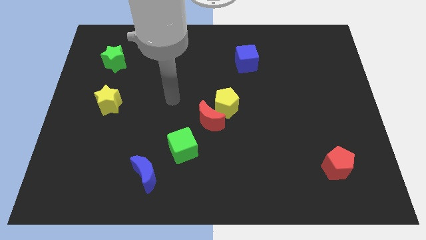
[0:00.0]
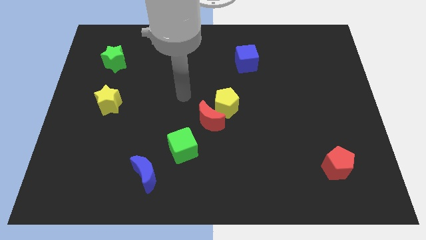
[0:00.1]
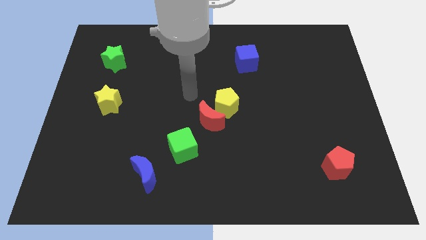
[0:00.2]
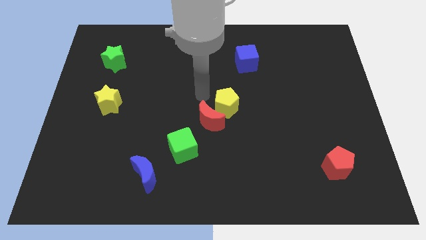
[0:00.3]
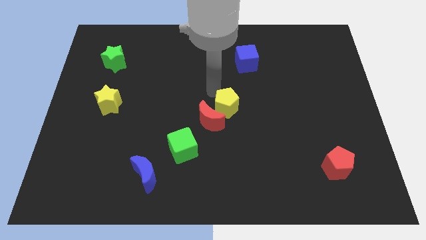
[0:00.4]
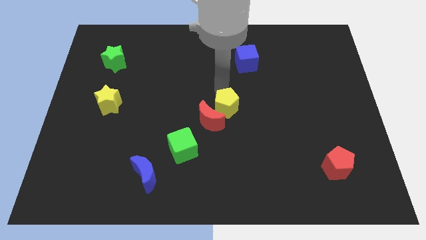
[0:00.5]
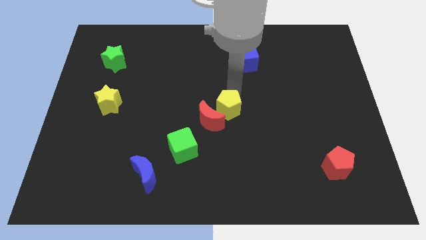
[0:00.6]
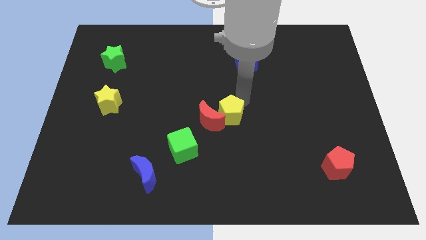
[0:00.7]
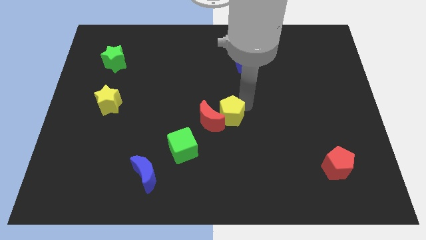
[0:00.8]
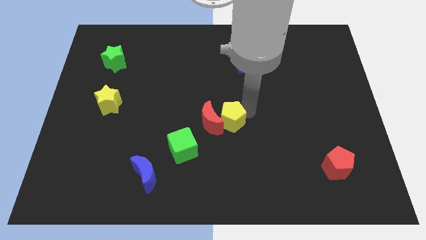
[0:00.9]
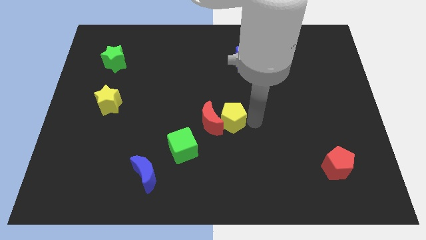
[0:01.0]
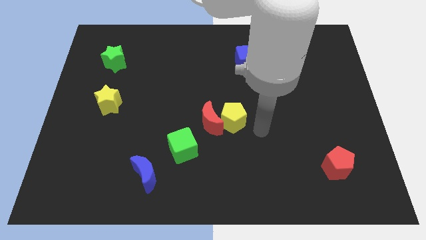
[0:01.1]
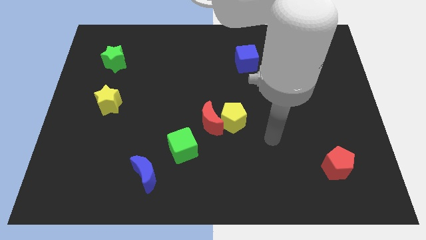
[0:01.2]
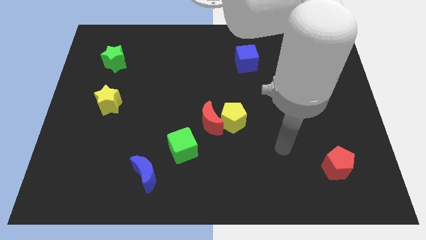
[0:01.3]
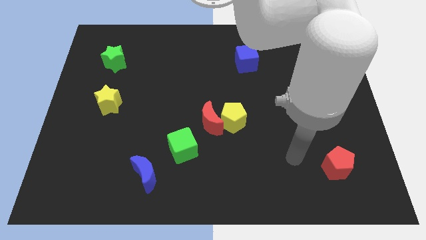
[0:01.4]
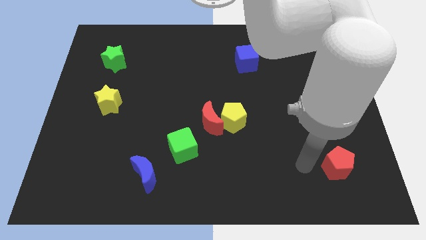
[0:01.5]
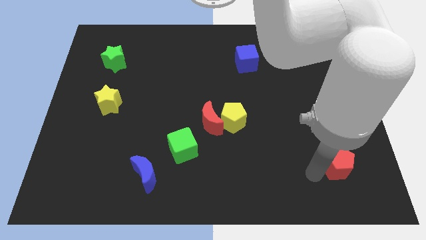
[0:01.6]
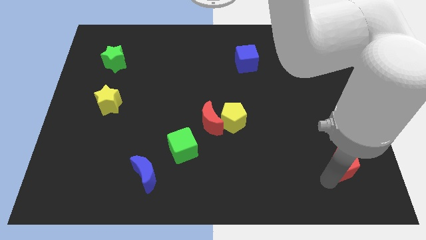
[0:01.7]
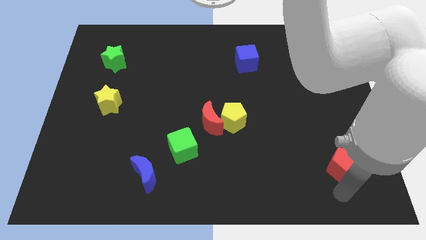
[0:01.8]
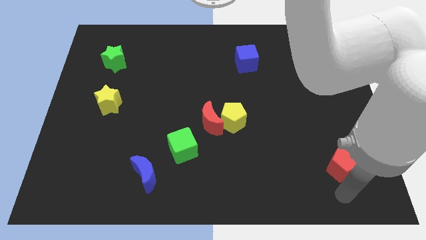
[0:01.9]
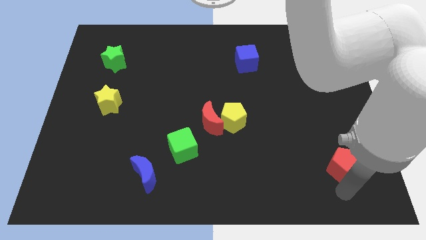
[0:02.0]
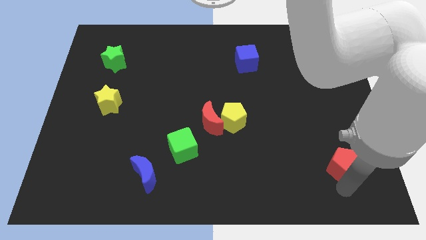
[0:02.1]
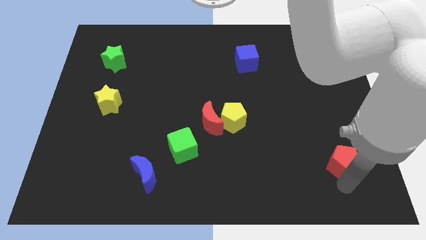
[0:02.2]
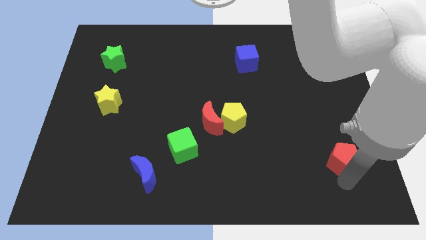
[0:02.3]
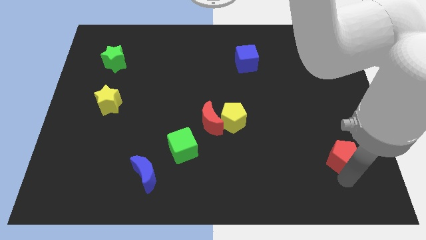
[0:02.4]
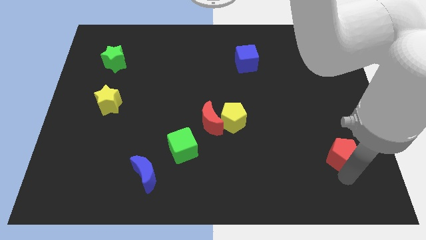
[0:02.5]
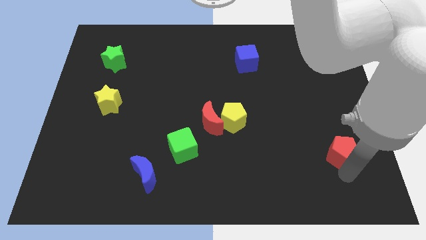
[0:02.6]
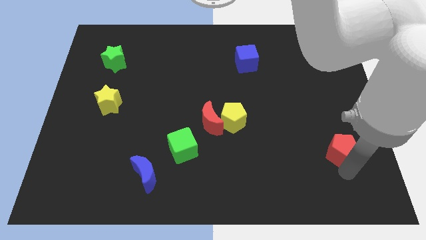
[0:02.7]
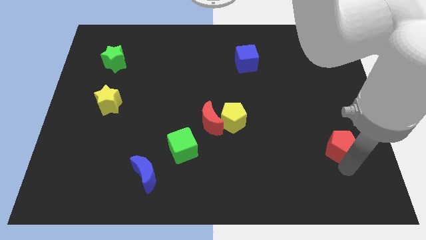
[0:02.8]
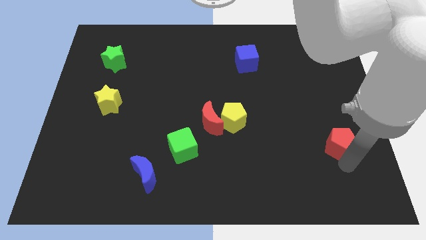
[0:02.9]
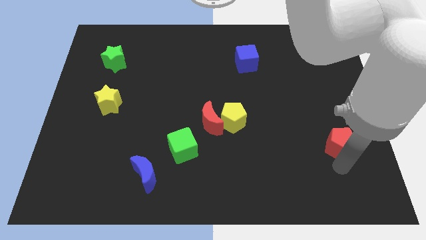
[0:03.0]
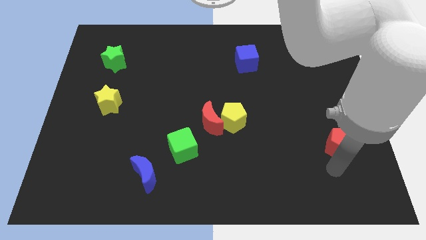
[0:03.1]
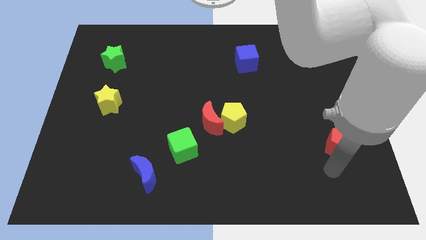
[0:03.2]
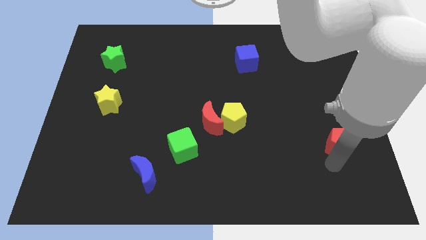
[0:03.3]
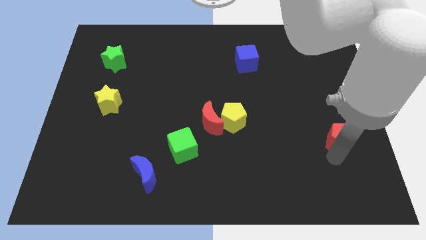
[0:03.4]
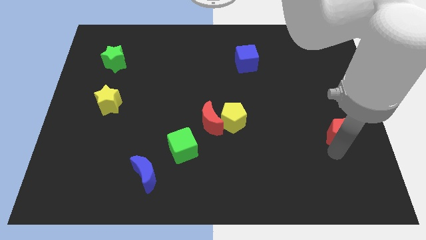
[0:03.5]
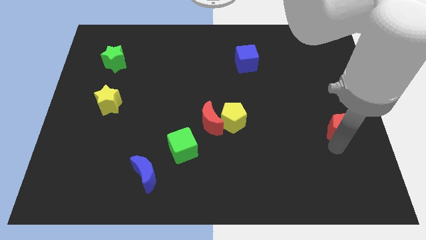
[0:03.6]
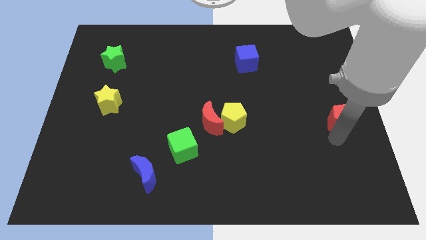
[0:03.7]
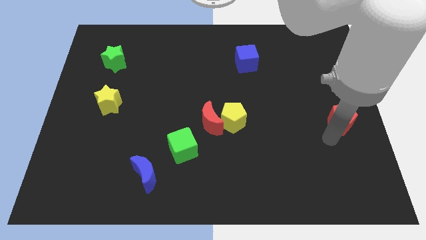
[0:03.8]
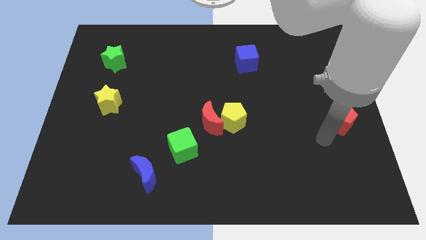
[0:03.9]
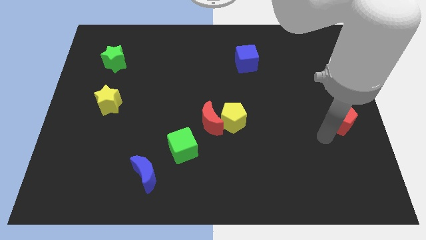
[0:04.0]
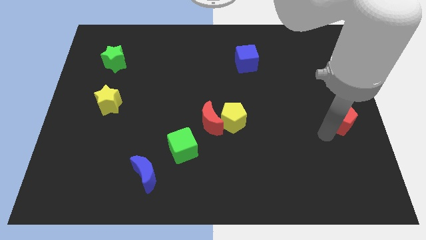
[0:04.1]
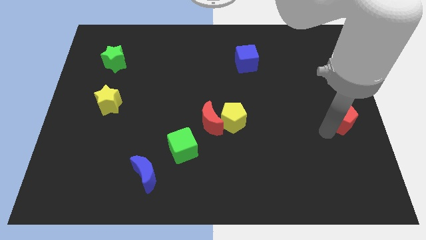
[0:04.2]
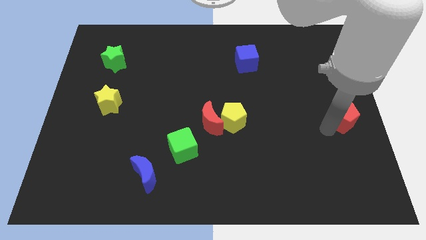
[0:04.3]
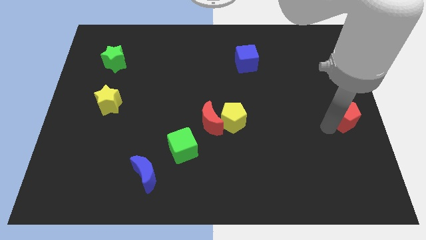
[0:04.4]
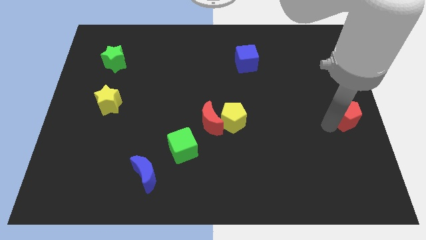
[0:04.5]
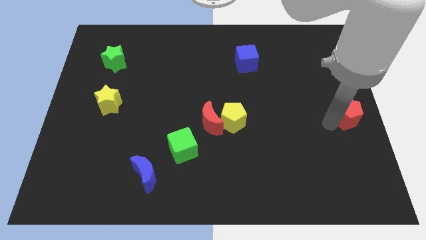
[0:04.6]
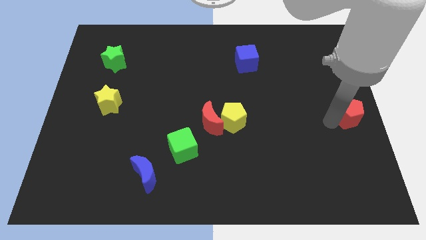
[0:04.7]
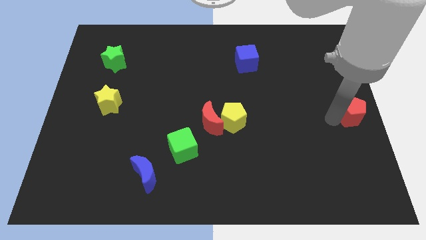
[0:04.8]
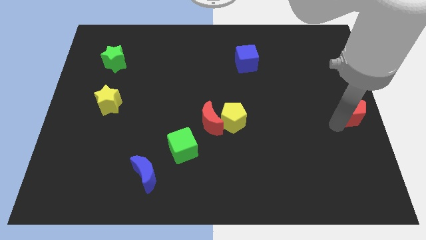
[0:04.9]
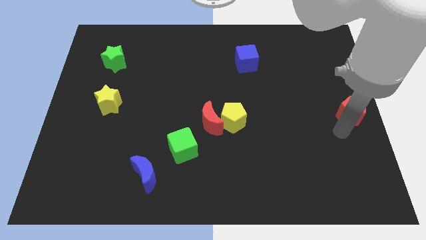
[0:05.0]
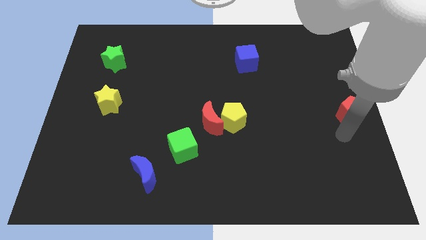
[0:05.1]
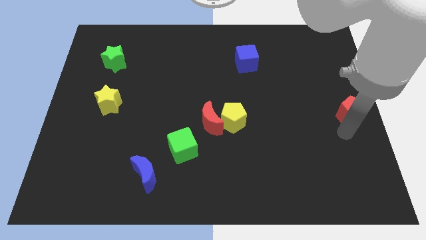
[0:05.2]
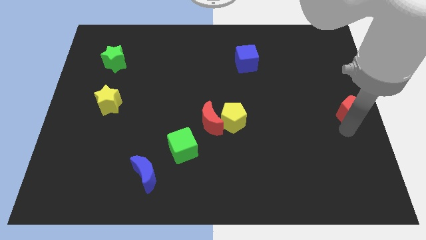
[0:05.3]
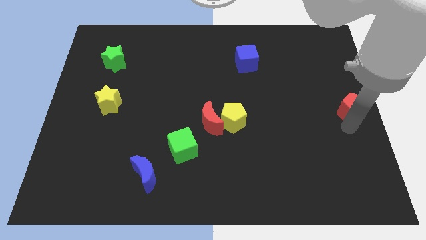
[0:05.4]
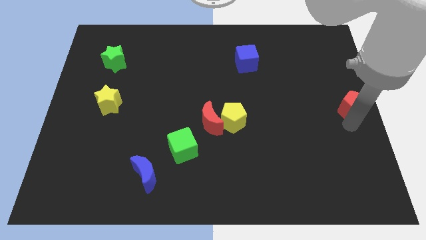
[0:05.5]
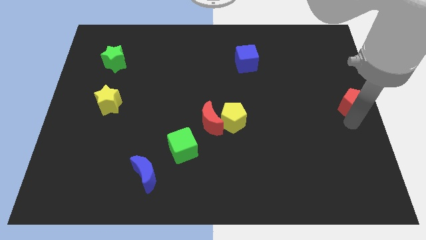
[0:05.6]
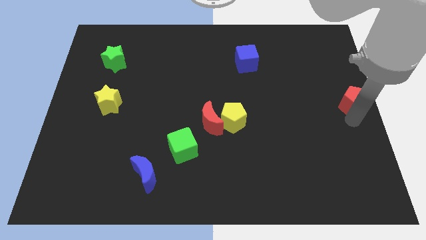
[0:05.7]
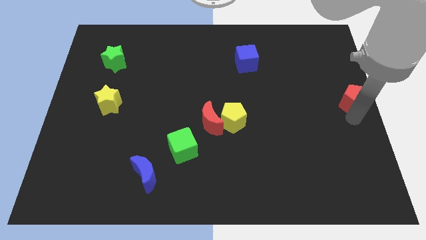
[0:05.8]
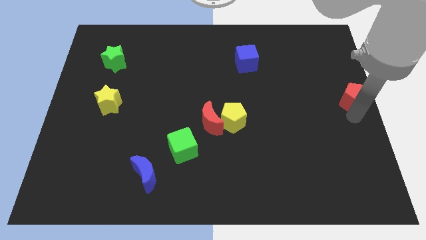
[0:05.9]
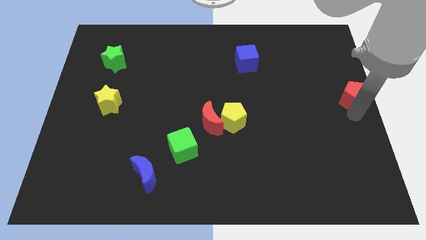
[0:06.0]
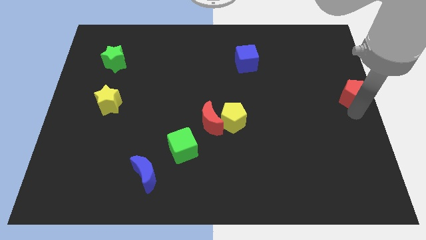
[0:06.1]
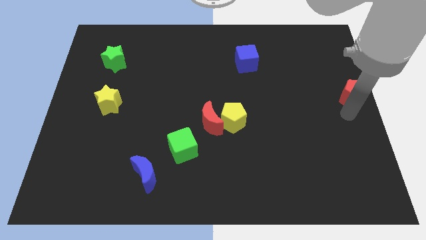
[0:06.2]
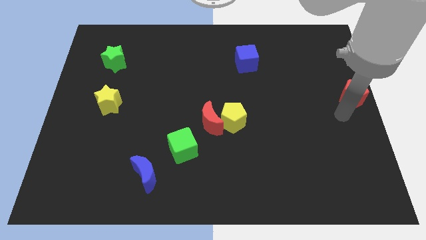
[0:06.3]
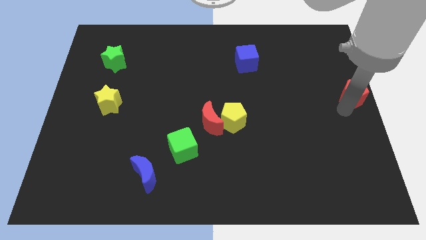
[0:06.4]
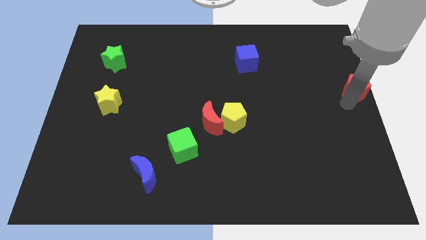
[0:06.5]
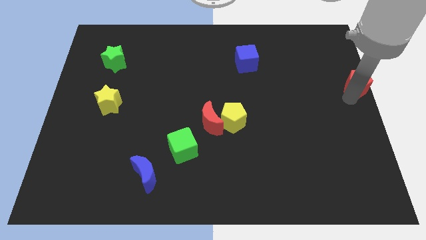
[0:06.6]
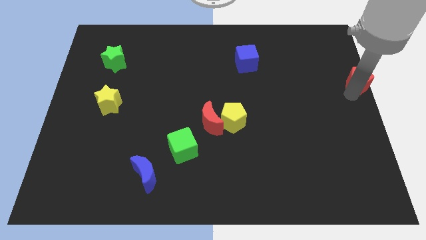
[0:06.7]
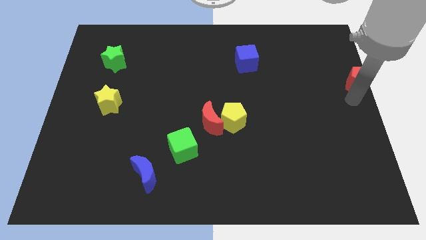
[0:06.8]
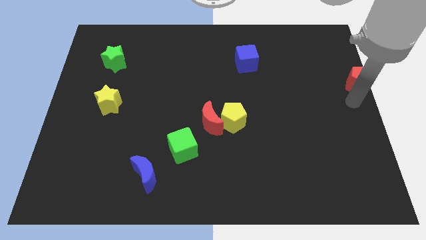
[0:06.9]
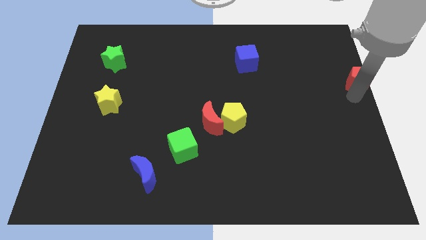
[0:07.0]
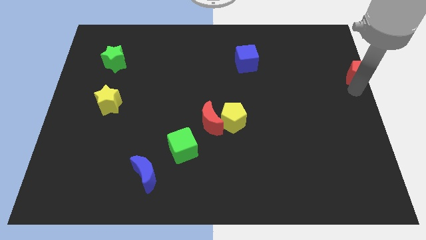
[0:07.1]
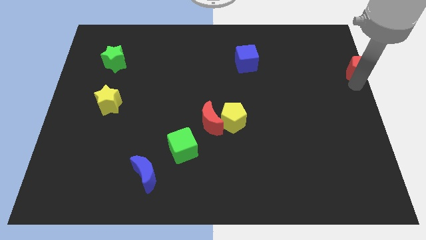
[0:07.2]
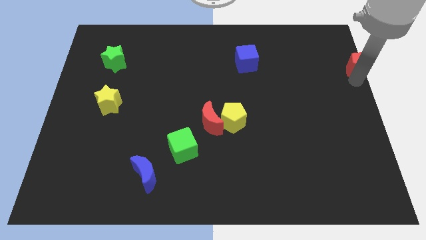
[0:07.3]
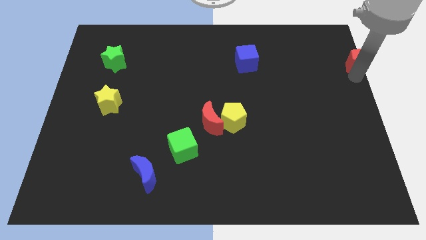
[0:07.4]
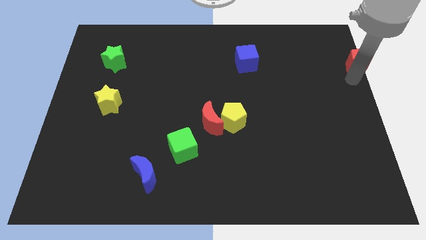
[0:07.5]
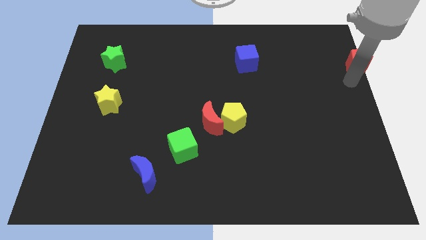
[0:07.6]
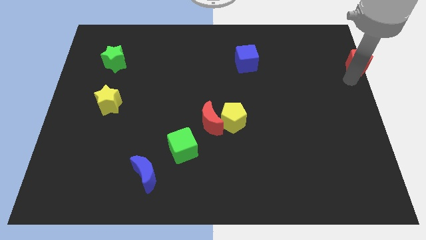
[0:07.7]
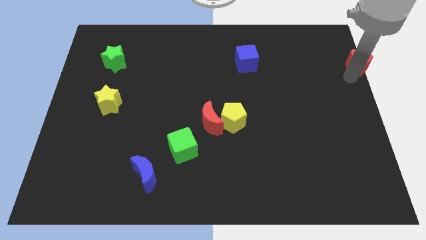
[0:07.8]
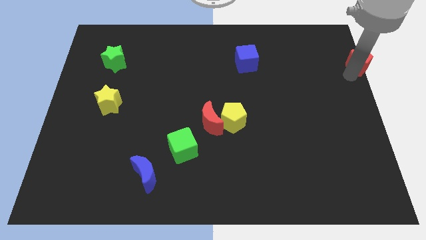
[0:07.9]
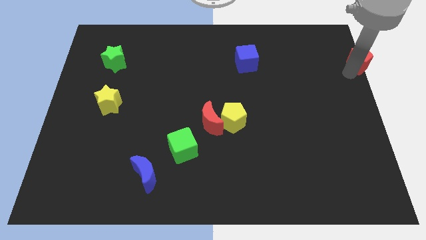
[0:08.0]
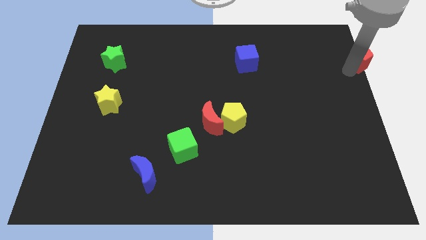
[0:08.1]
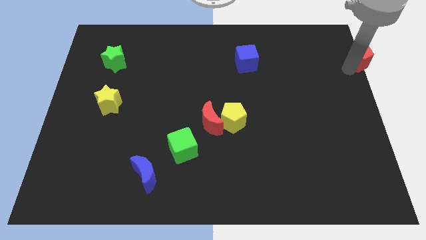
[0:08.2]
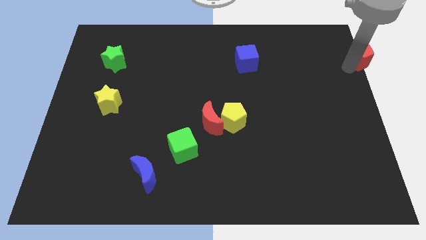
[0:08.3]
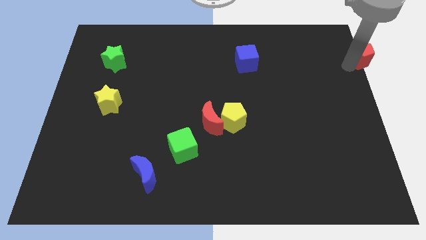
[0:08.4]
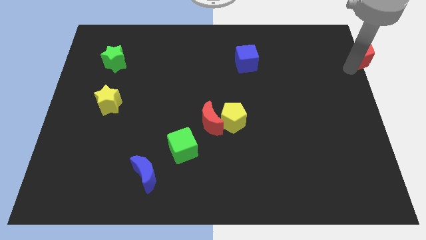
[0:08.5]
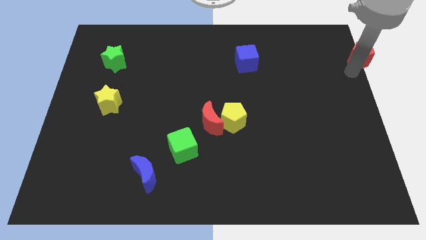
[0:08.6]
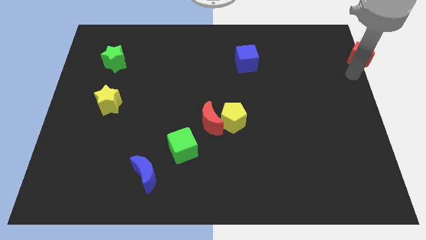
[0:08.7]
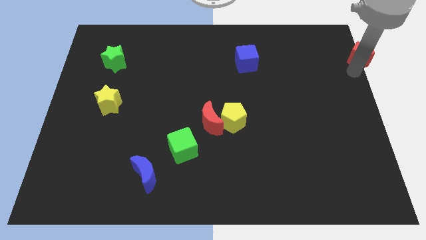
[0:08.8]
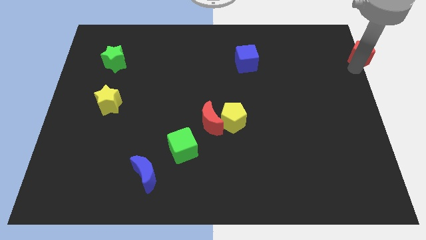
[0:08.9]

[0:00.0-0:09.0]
move the red pentagon to the top right corner
